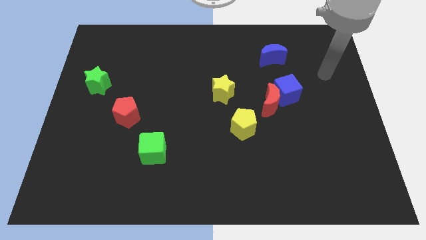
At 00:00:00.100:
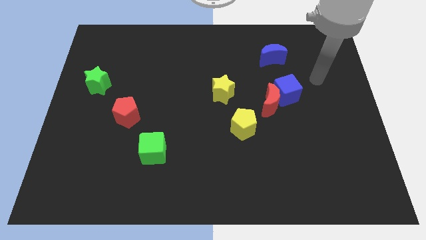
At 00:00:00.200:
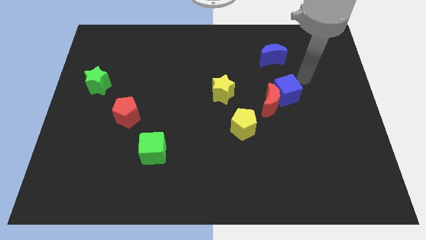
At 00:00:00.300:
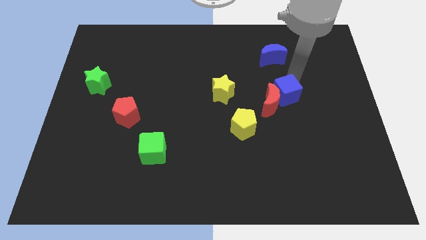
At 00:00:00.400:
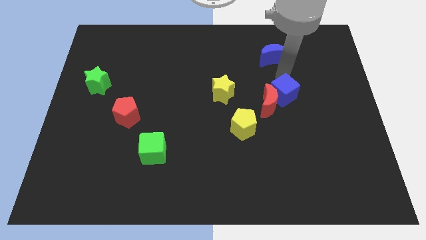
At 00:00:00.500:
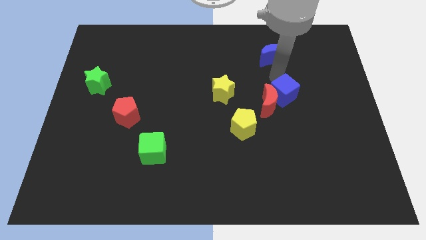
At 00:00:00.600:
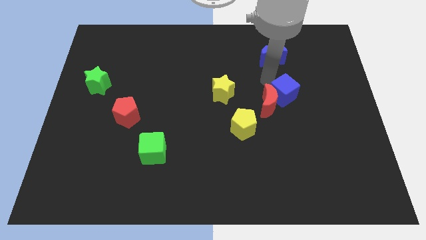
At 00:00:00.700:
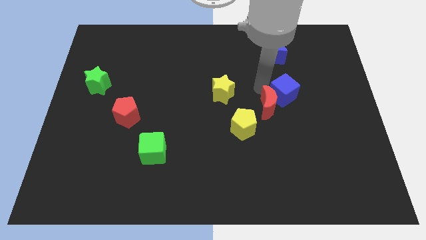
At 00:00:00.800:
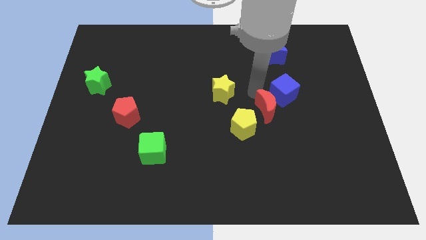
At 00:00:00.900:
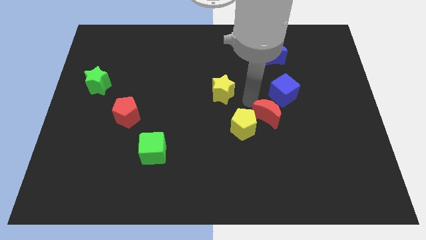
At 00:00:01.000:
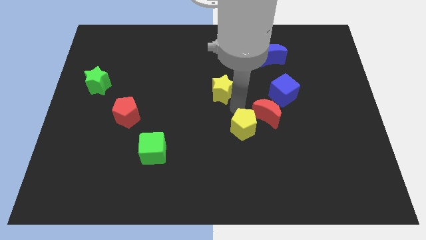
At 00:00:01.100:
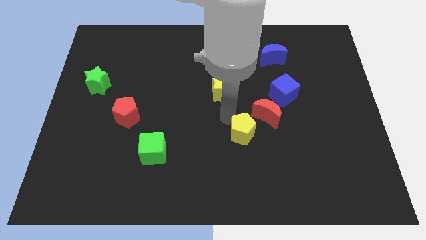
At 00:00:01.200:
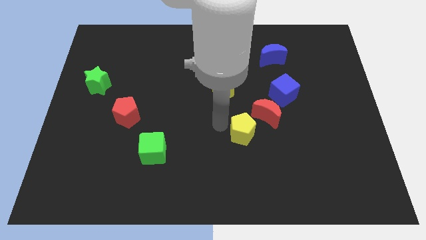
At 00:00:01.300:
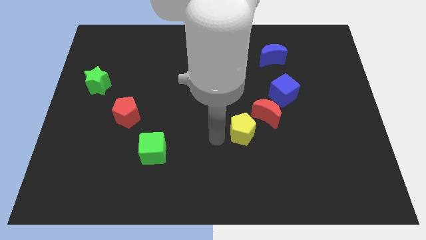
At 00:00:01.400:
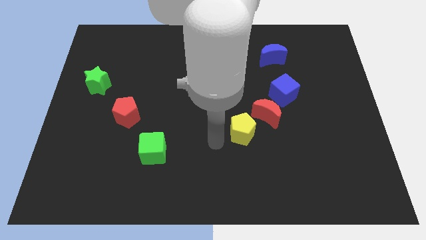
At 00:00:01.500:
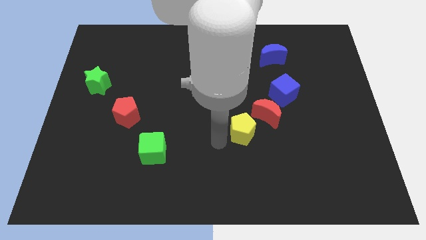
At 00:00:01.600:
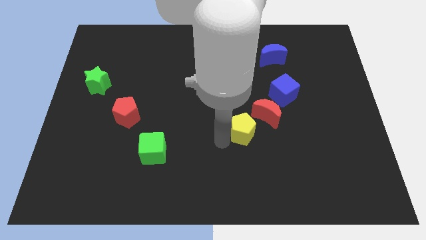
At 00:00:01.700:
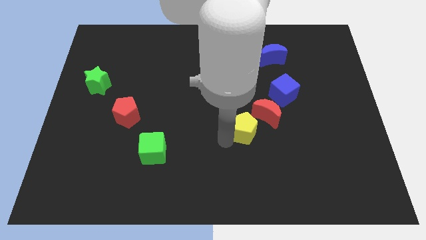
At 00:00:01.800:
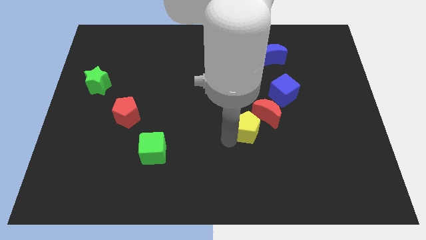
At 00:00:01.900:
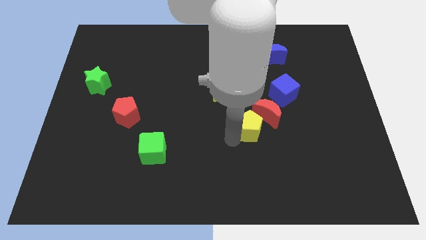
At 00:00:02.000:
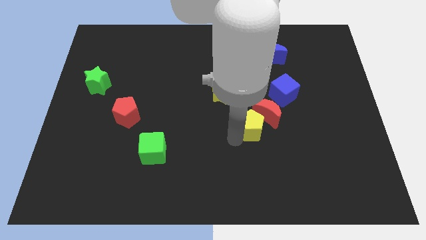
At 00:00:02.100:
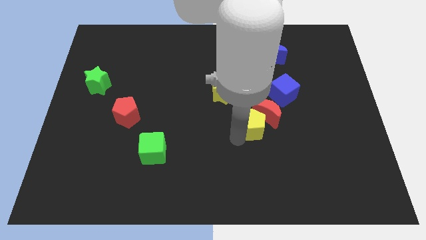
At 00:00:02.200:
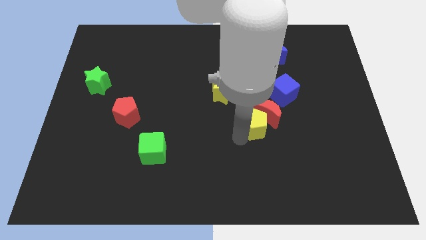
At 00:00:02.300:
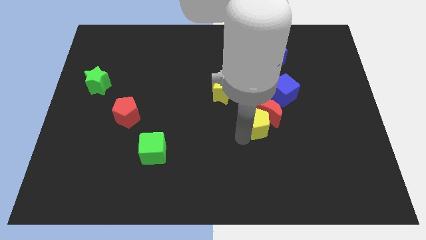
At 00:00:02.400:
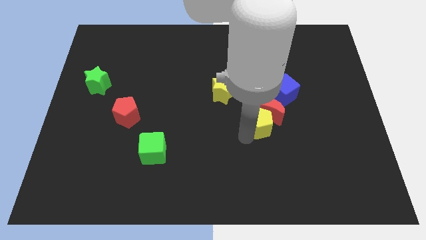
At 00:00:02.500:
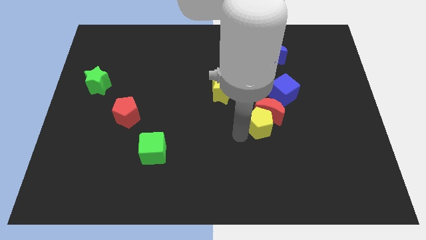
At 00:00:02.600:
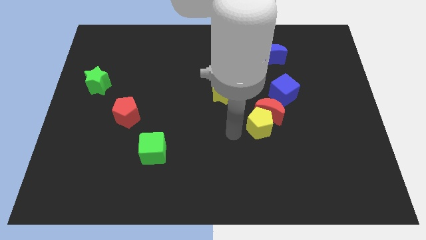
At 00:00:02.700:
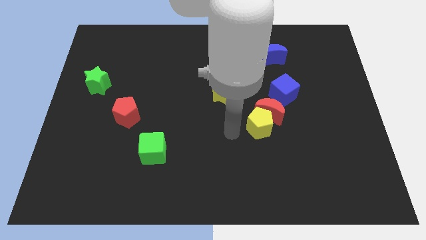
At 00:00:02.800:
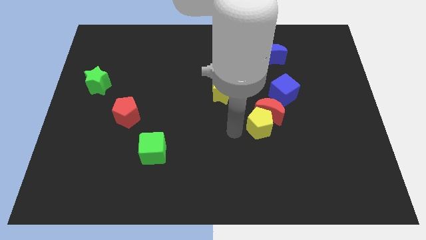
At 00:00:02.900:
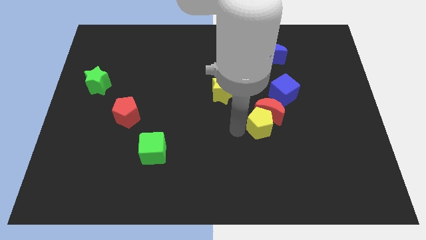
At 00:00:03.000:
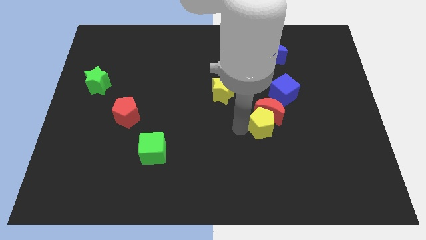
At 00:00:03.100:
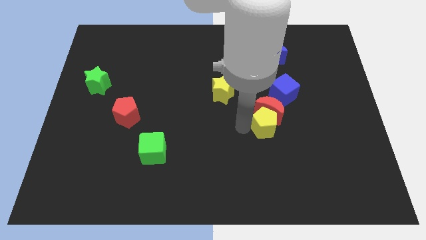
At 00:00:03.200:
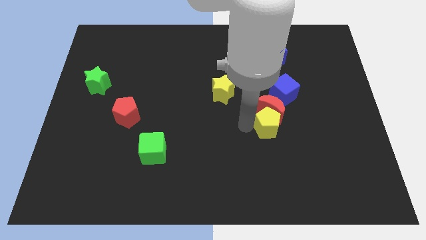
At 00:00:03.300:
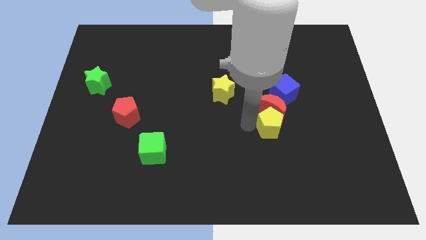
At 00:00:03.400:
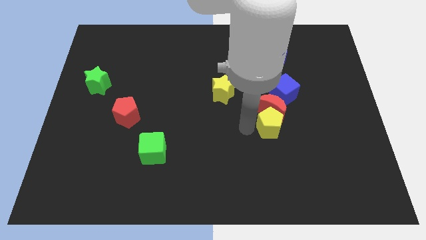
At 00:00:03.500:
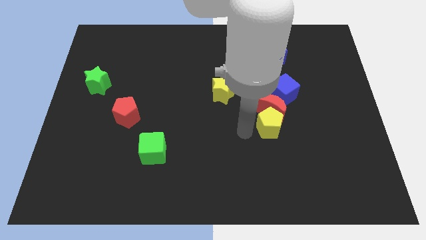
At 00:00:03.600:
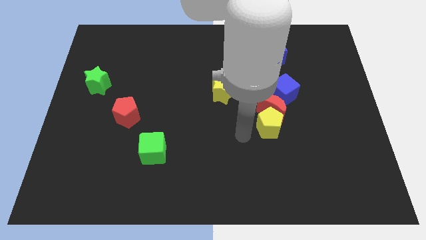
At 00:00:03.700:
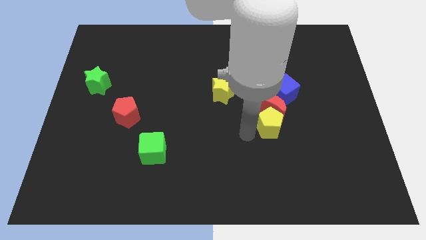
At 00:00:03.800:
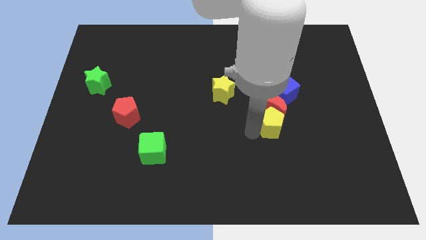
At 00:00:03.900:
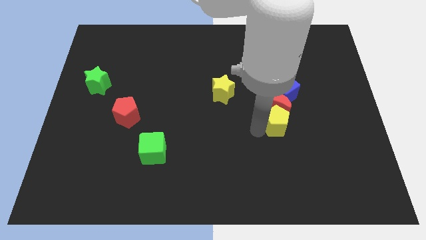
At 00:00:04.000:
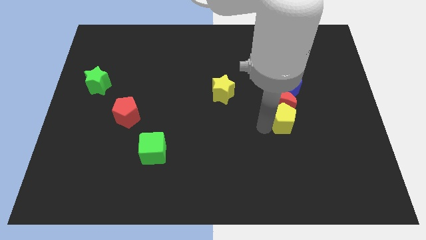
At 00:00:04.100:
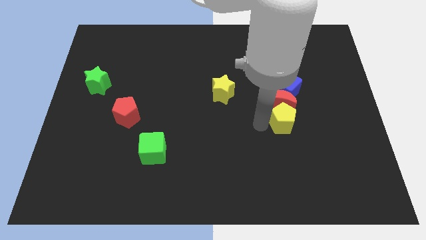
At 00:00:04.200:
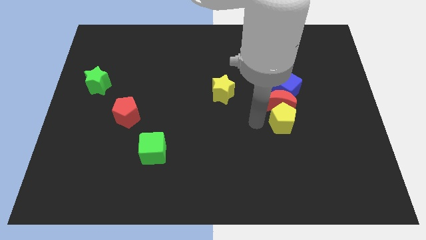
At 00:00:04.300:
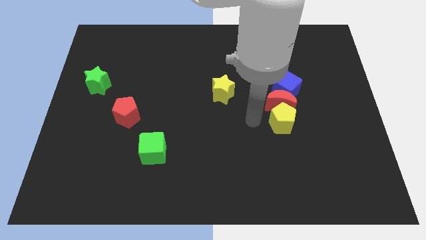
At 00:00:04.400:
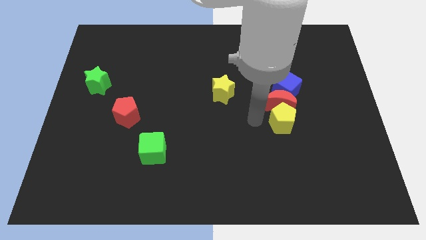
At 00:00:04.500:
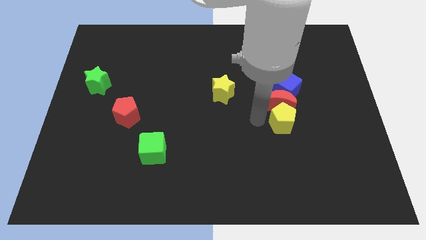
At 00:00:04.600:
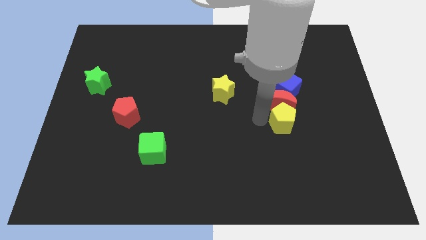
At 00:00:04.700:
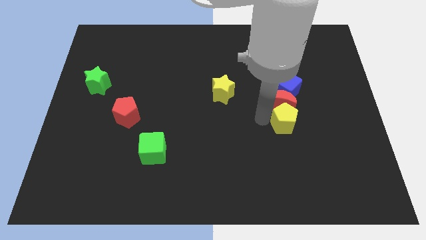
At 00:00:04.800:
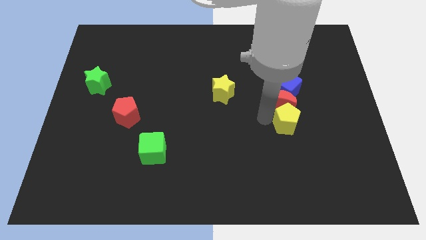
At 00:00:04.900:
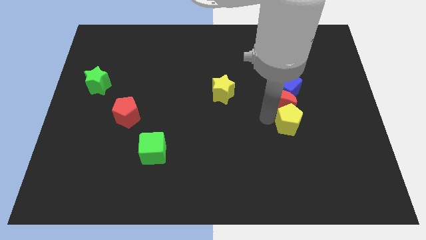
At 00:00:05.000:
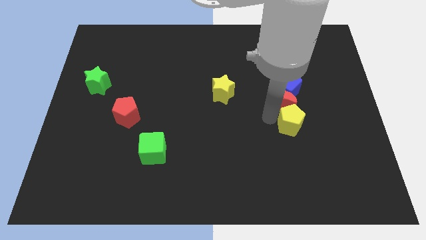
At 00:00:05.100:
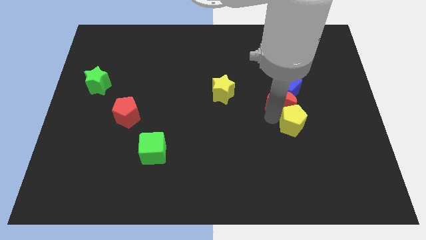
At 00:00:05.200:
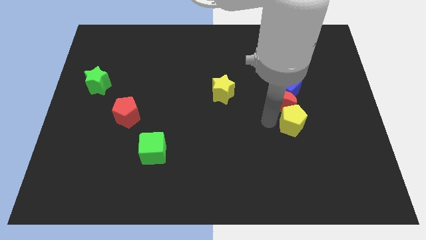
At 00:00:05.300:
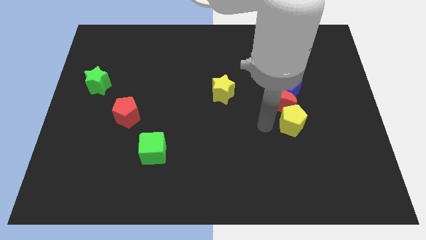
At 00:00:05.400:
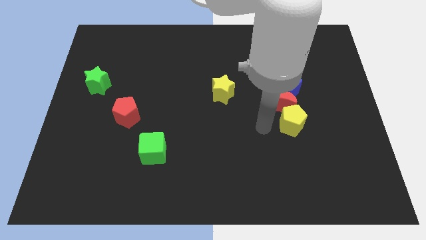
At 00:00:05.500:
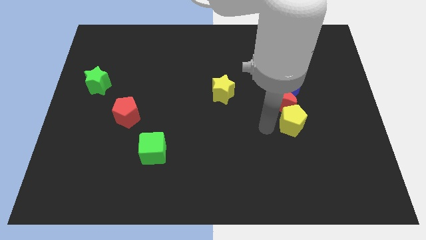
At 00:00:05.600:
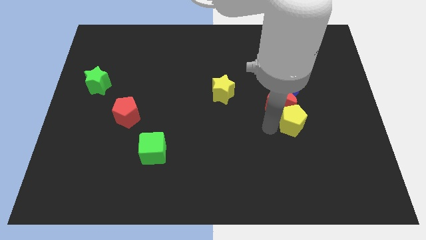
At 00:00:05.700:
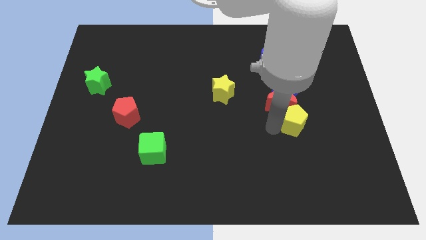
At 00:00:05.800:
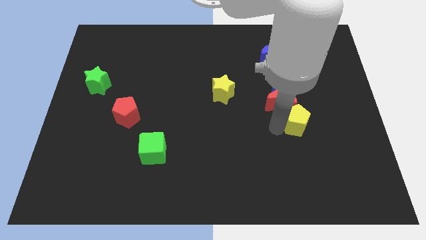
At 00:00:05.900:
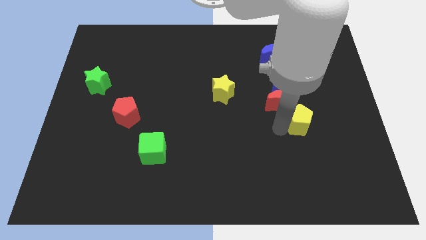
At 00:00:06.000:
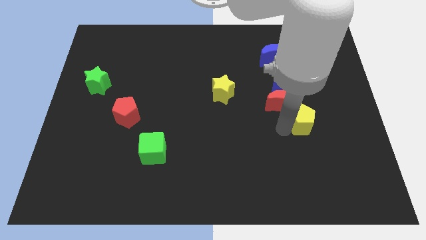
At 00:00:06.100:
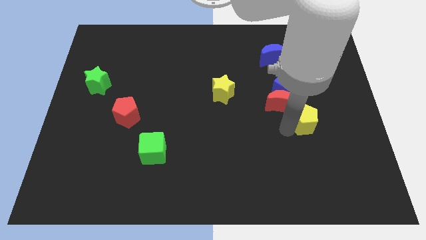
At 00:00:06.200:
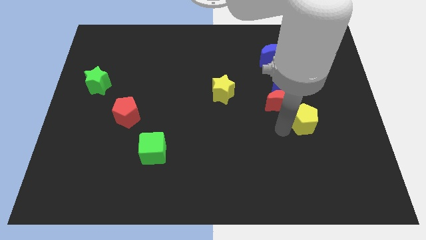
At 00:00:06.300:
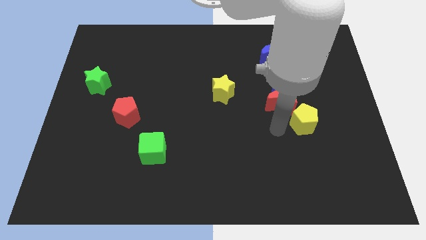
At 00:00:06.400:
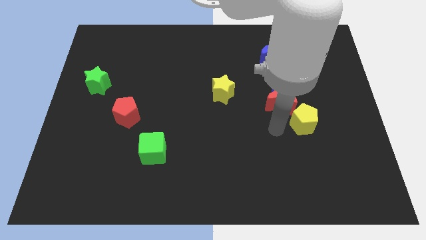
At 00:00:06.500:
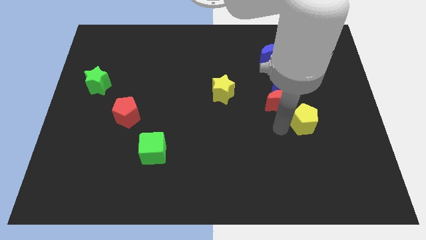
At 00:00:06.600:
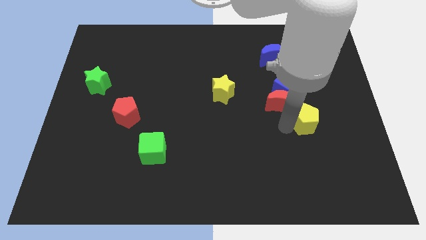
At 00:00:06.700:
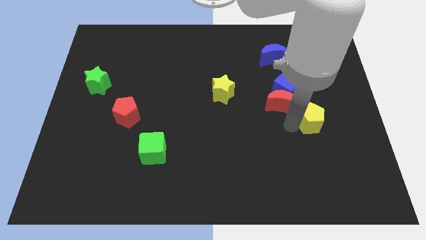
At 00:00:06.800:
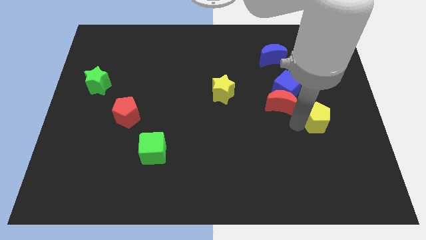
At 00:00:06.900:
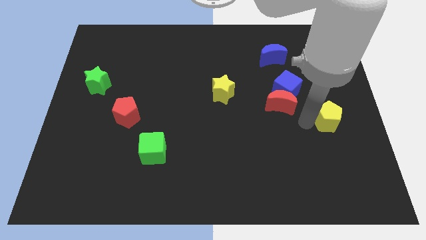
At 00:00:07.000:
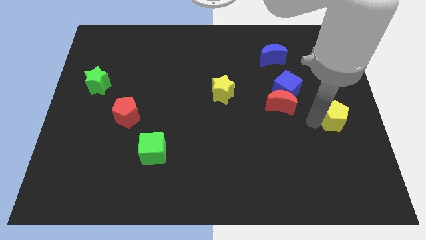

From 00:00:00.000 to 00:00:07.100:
push the yellow pentagon to the right side

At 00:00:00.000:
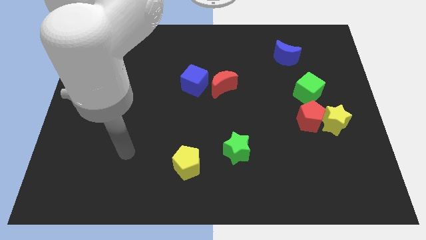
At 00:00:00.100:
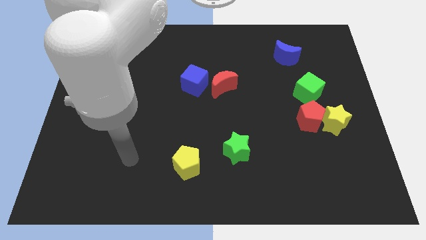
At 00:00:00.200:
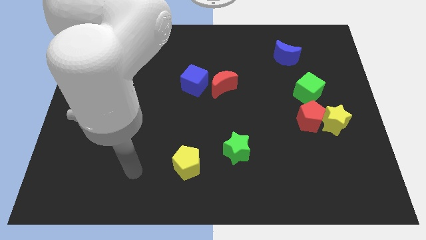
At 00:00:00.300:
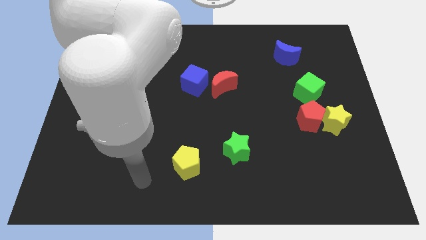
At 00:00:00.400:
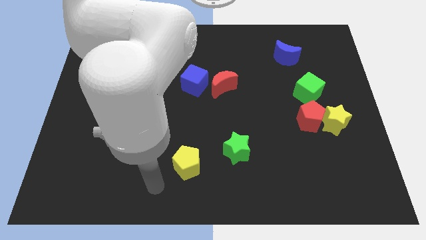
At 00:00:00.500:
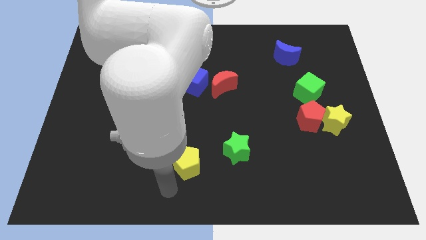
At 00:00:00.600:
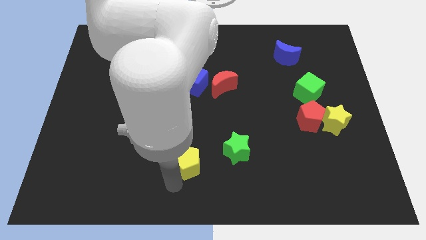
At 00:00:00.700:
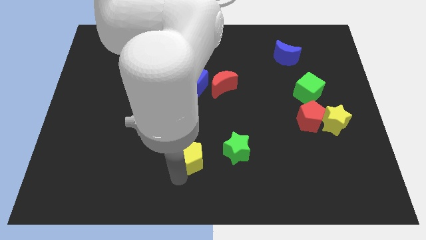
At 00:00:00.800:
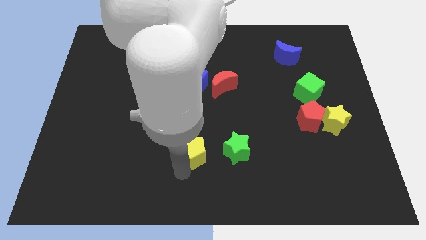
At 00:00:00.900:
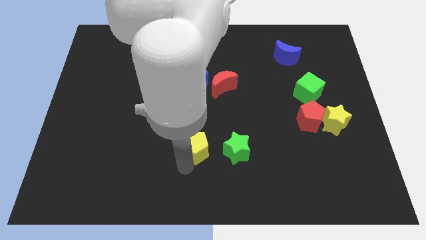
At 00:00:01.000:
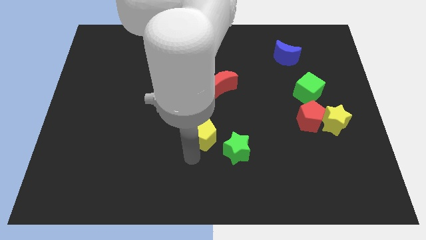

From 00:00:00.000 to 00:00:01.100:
push the yellow pentagon to the center
